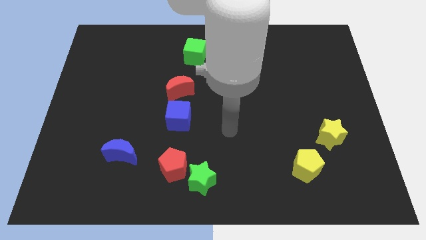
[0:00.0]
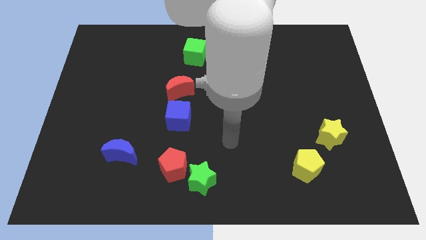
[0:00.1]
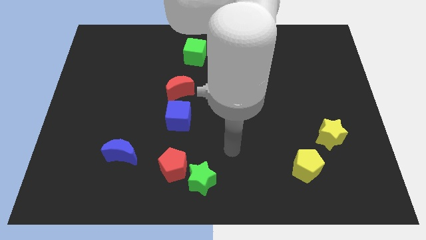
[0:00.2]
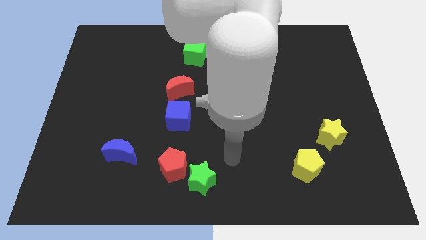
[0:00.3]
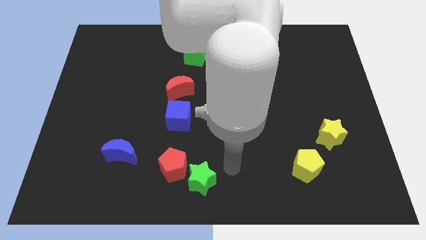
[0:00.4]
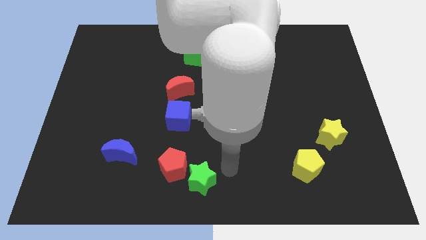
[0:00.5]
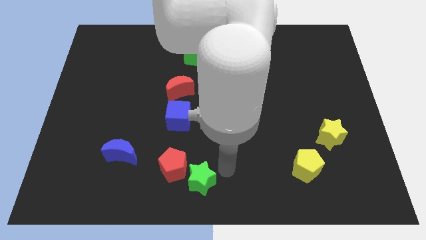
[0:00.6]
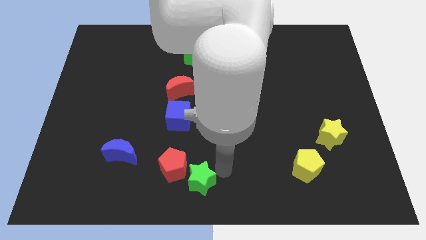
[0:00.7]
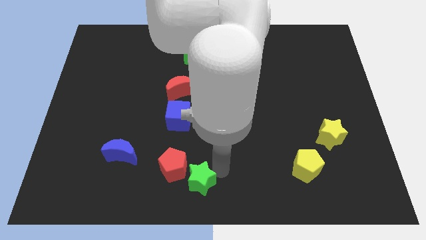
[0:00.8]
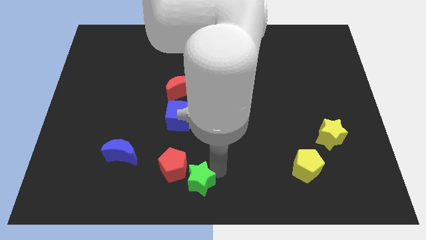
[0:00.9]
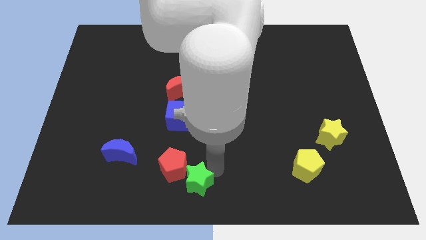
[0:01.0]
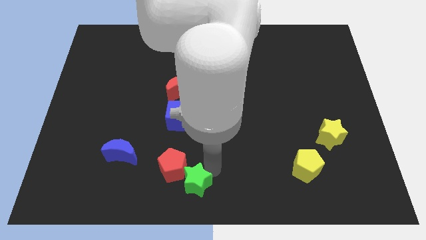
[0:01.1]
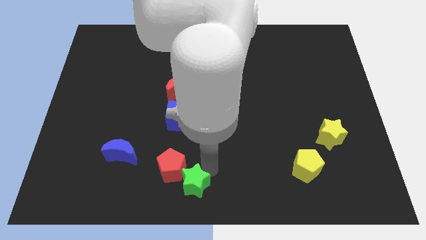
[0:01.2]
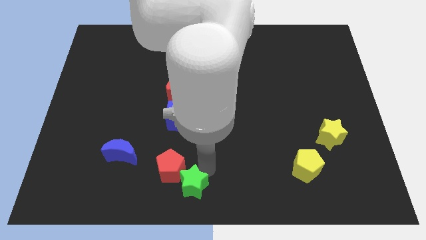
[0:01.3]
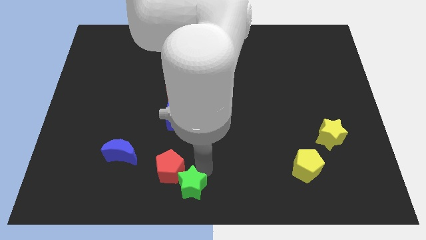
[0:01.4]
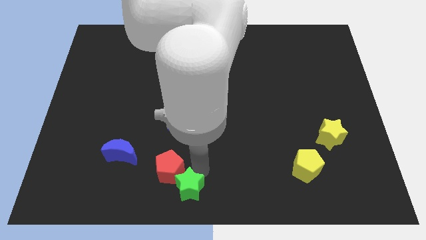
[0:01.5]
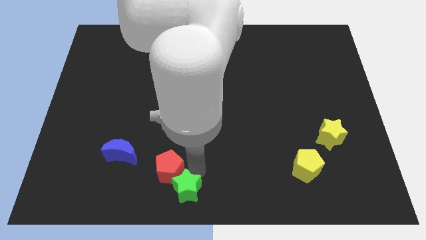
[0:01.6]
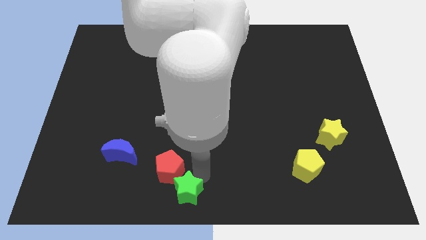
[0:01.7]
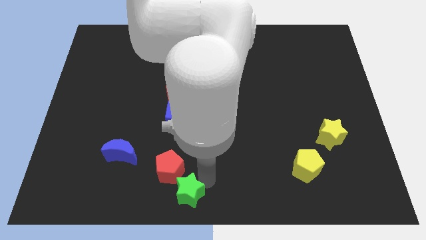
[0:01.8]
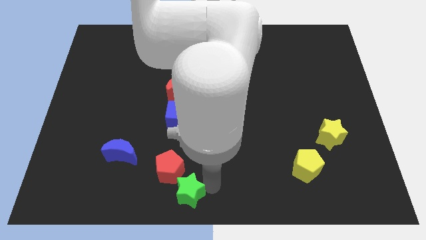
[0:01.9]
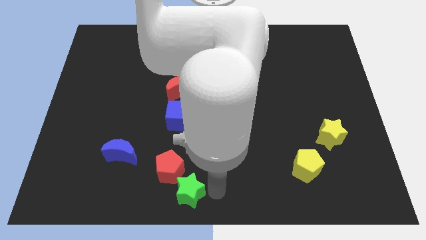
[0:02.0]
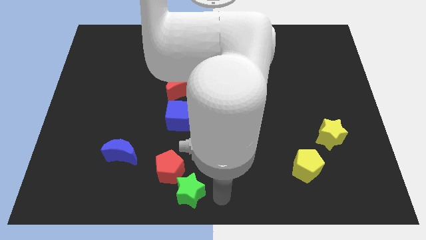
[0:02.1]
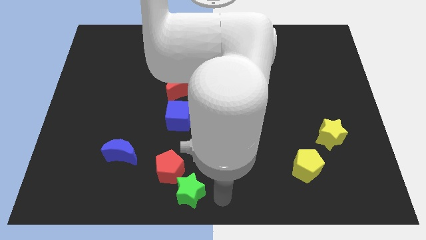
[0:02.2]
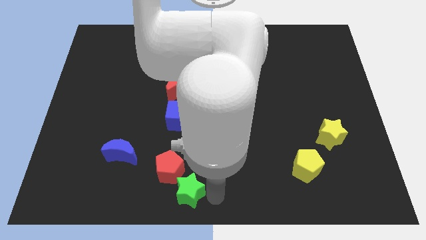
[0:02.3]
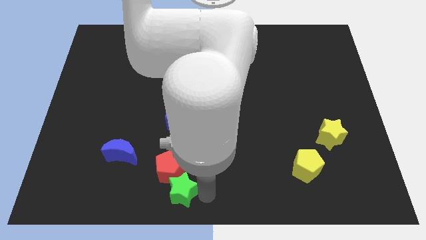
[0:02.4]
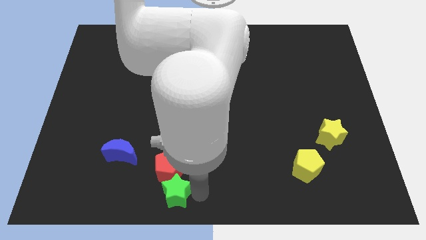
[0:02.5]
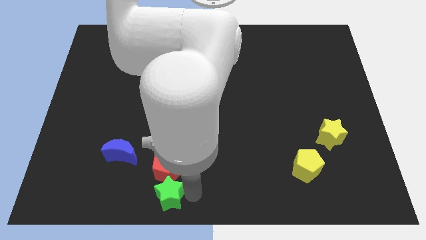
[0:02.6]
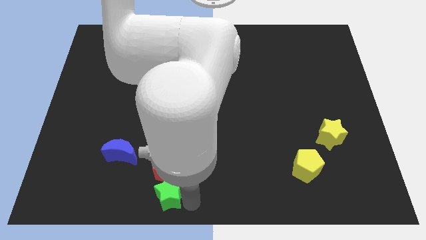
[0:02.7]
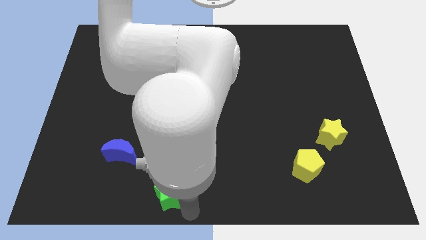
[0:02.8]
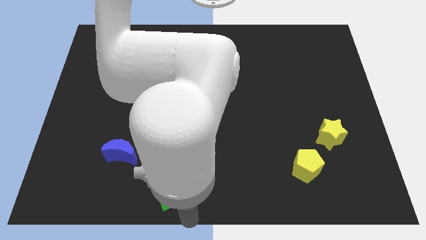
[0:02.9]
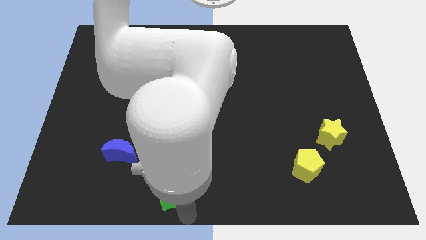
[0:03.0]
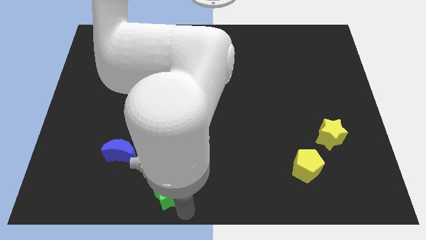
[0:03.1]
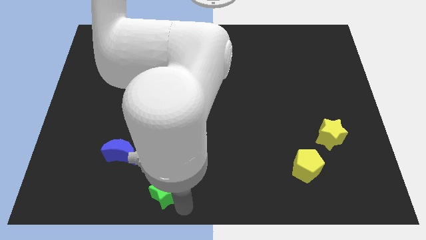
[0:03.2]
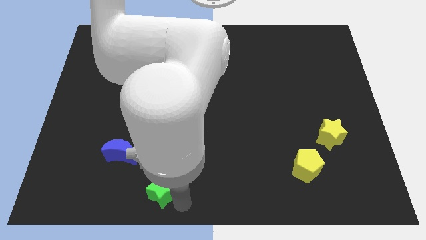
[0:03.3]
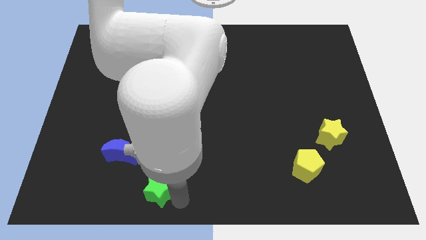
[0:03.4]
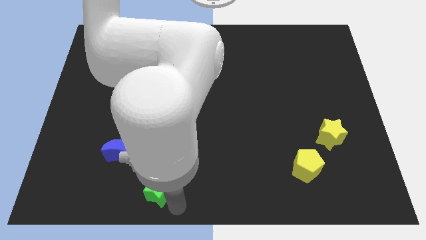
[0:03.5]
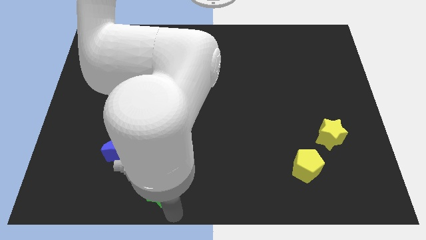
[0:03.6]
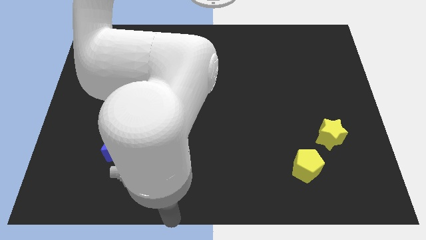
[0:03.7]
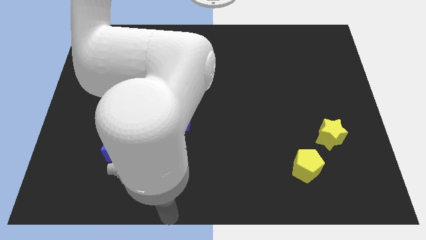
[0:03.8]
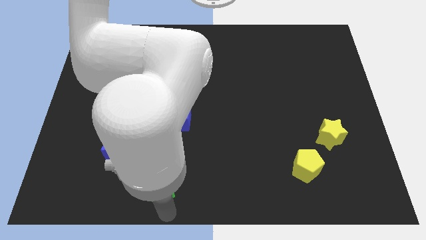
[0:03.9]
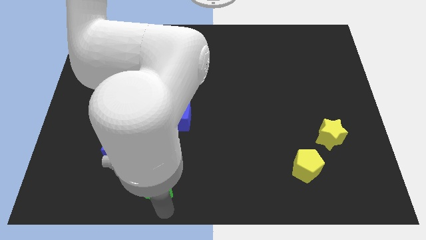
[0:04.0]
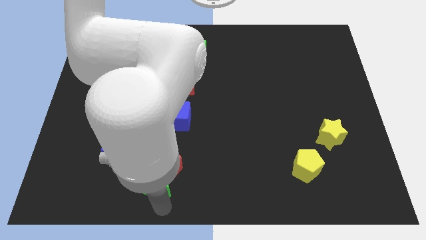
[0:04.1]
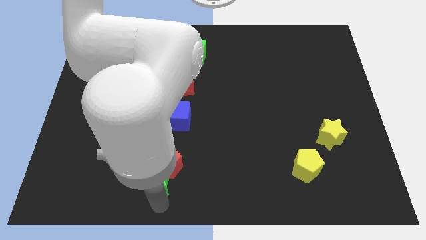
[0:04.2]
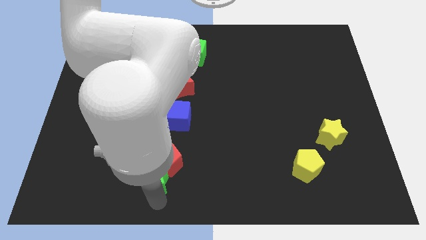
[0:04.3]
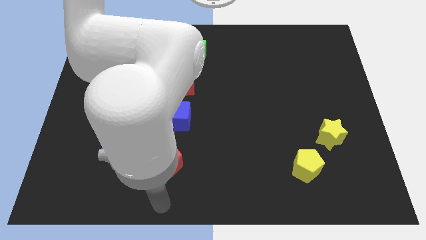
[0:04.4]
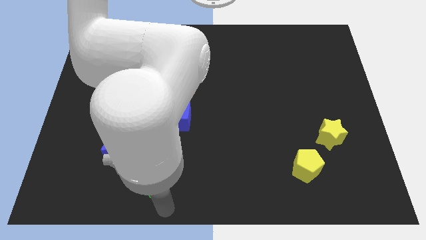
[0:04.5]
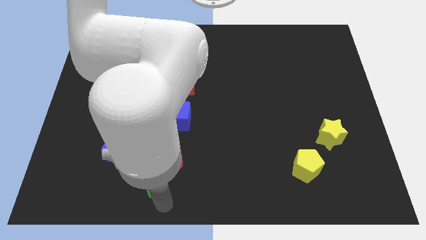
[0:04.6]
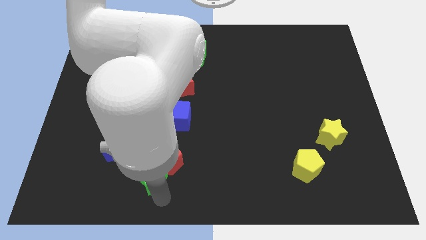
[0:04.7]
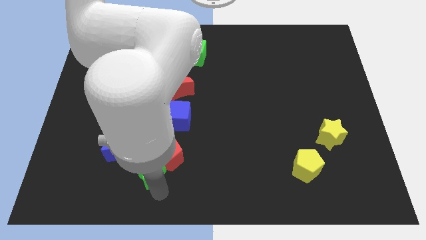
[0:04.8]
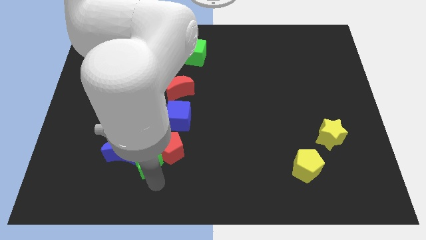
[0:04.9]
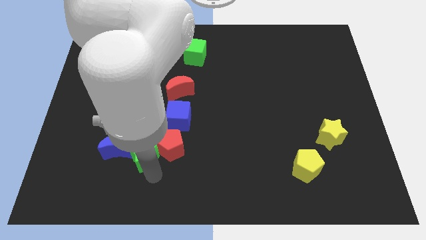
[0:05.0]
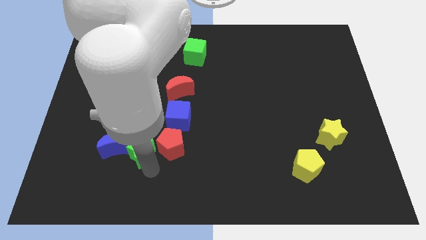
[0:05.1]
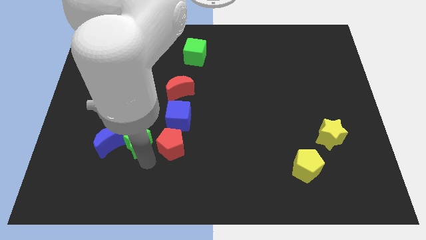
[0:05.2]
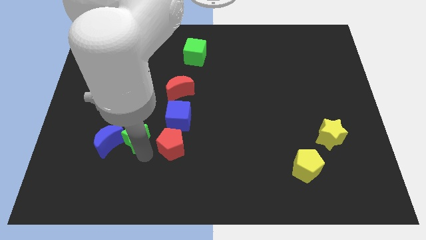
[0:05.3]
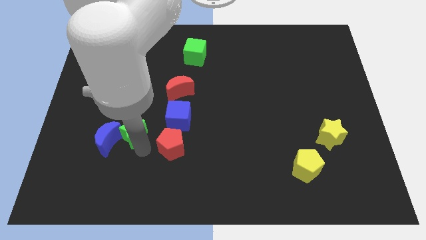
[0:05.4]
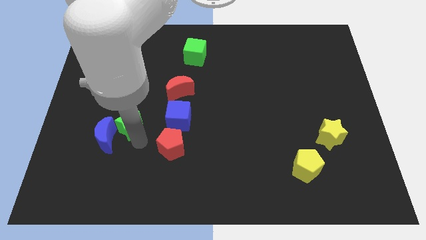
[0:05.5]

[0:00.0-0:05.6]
push the green star upwards and left diagonally

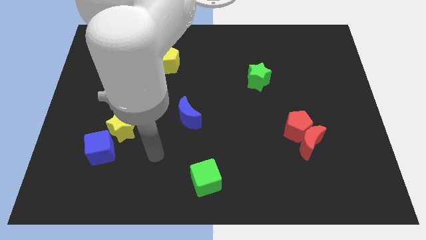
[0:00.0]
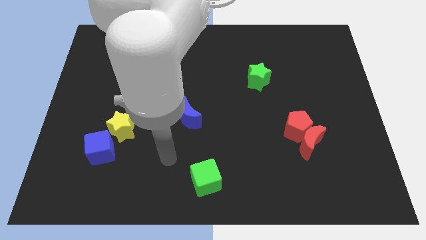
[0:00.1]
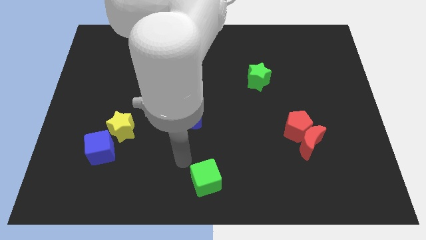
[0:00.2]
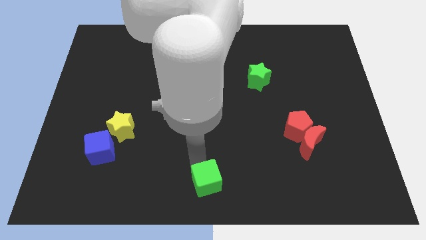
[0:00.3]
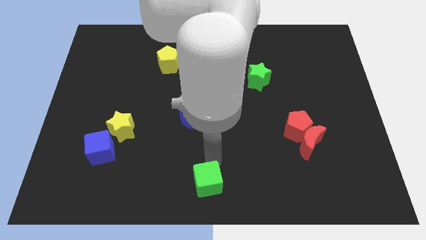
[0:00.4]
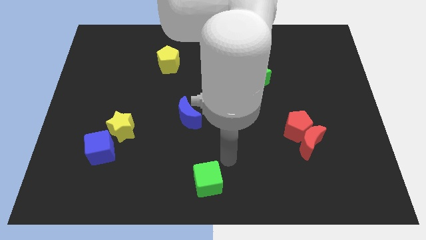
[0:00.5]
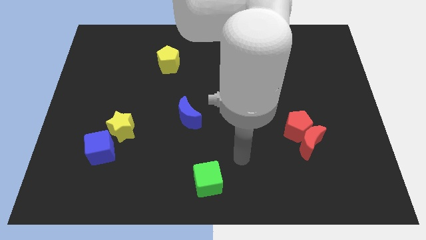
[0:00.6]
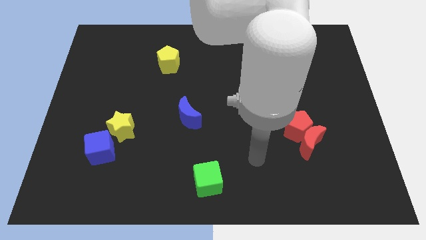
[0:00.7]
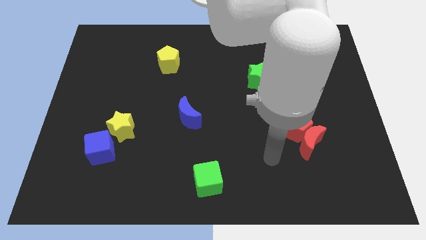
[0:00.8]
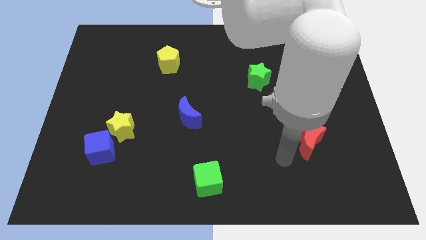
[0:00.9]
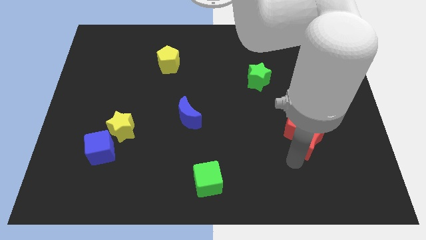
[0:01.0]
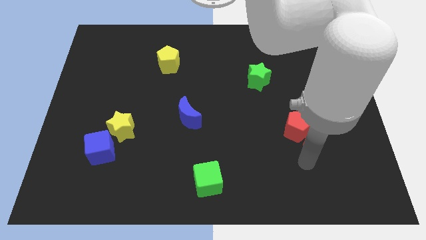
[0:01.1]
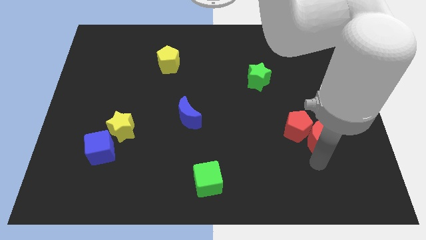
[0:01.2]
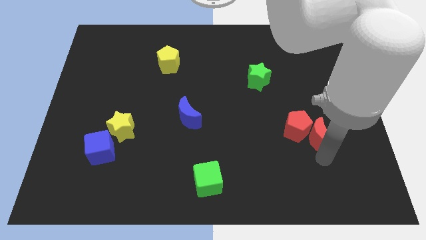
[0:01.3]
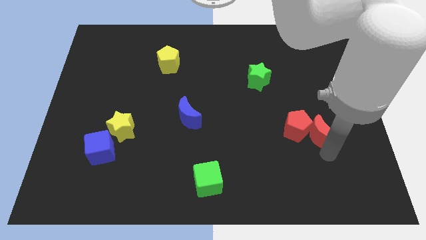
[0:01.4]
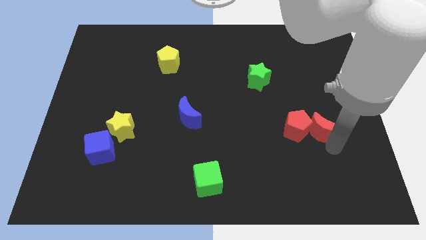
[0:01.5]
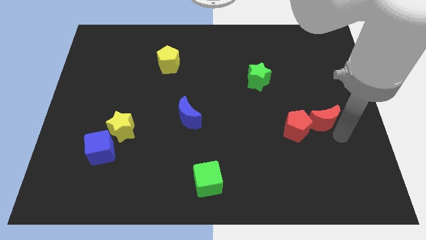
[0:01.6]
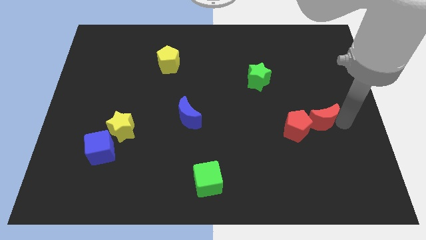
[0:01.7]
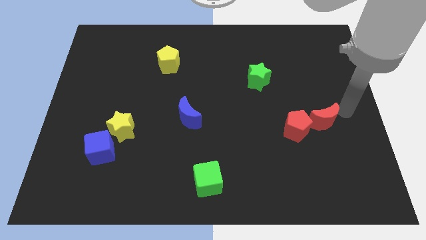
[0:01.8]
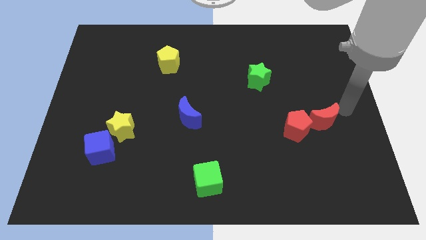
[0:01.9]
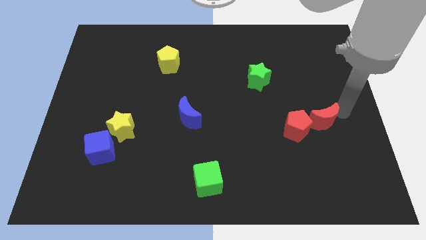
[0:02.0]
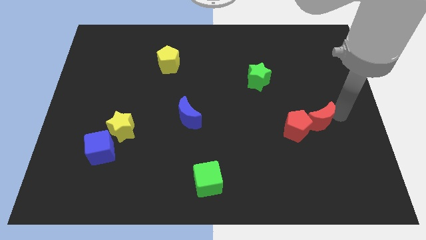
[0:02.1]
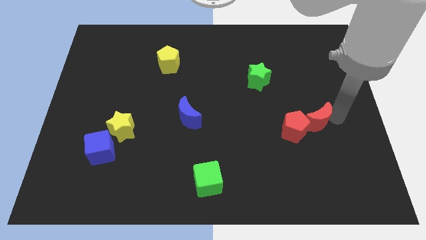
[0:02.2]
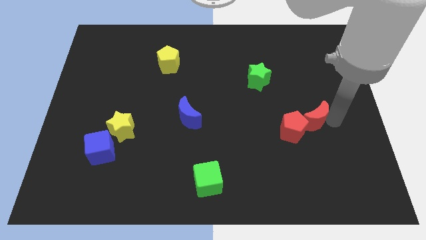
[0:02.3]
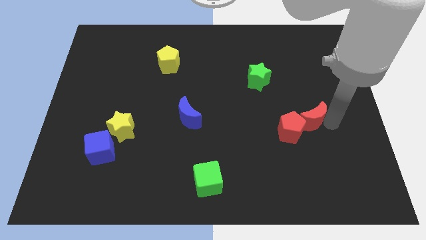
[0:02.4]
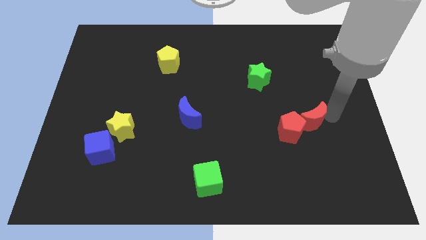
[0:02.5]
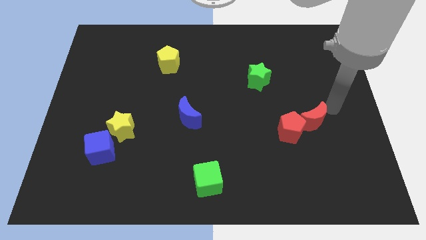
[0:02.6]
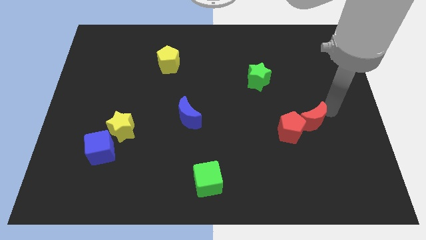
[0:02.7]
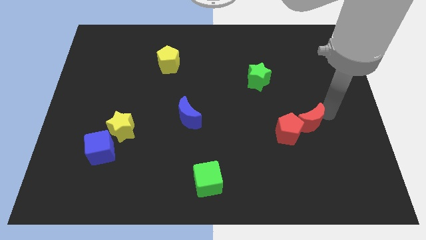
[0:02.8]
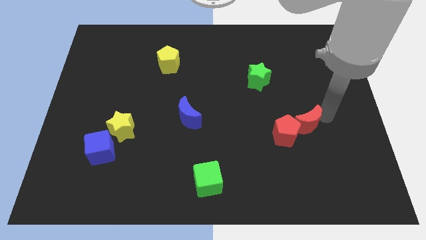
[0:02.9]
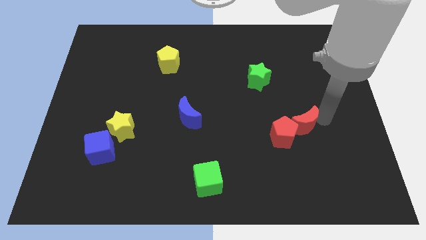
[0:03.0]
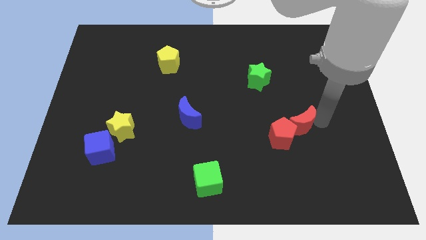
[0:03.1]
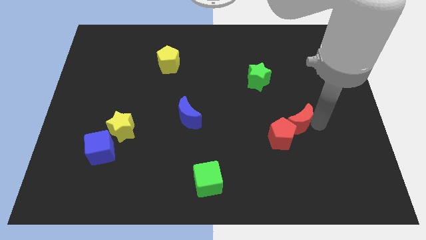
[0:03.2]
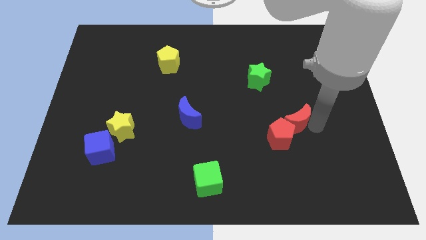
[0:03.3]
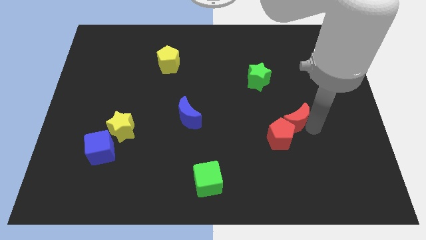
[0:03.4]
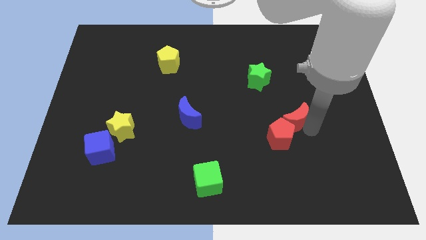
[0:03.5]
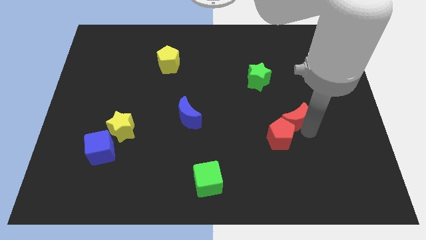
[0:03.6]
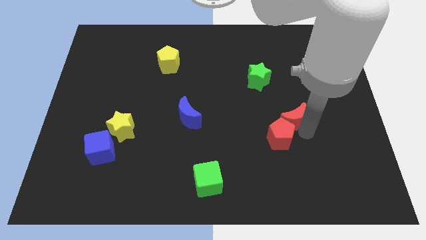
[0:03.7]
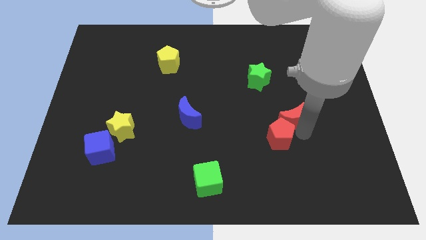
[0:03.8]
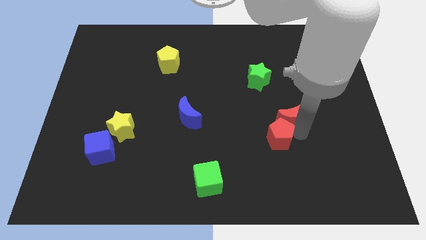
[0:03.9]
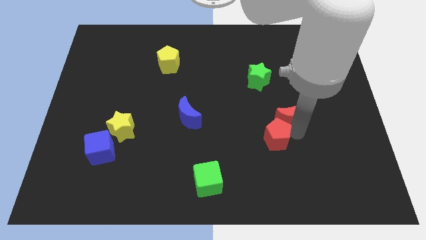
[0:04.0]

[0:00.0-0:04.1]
push the red moon a little bit up and then left
